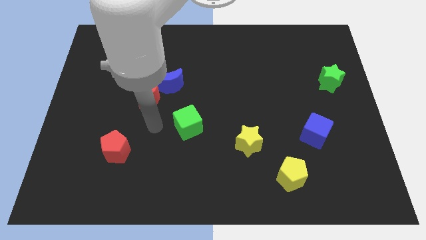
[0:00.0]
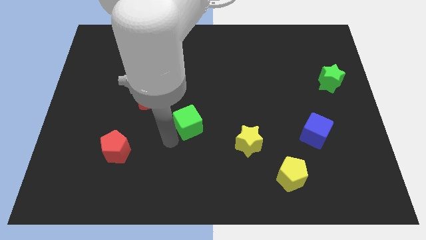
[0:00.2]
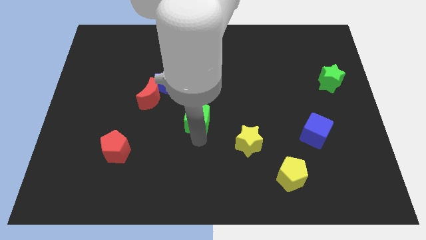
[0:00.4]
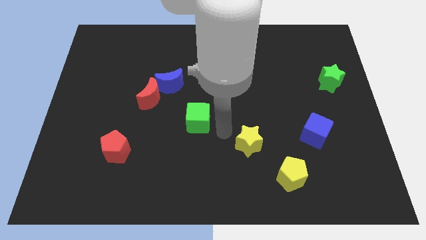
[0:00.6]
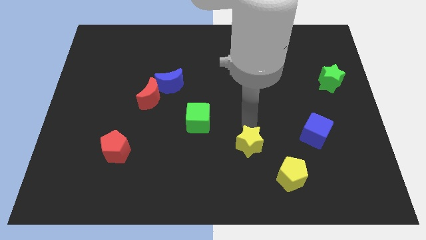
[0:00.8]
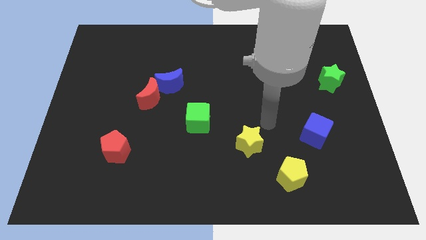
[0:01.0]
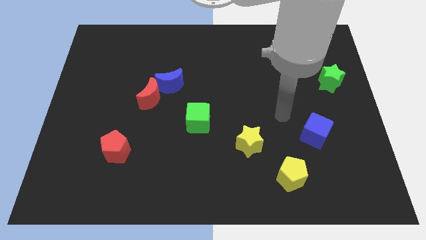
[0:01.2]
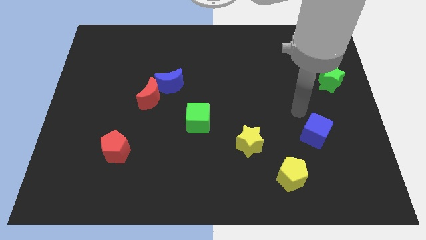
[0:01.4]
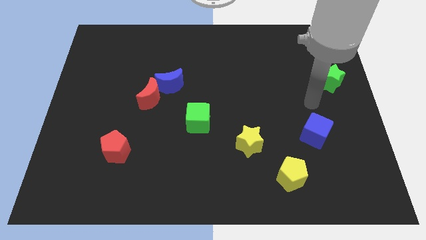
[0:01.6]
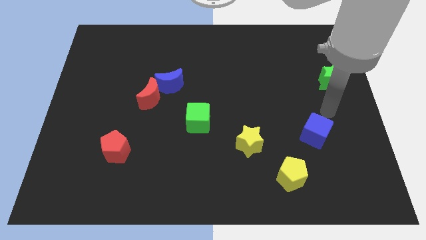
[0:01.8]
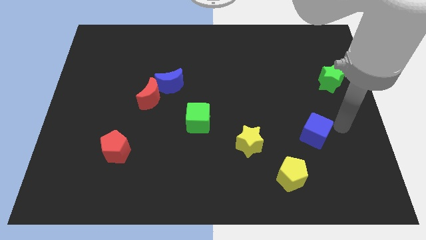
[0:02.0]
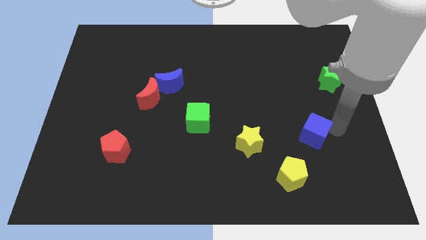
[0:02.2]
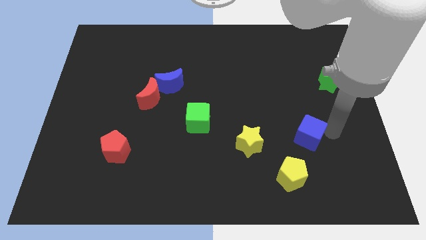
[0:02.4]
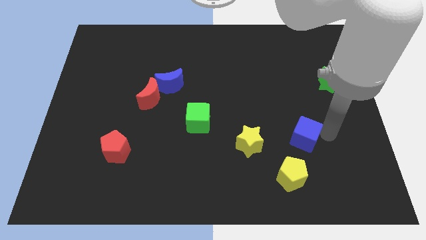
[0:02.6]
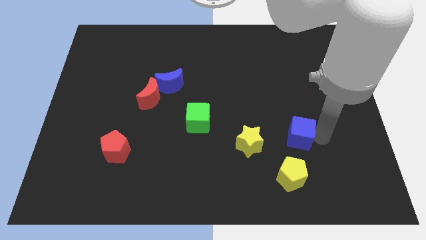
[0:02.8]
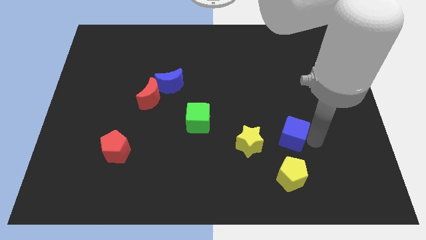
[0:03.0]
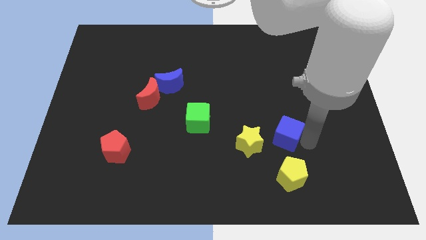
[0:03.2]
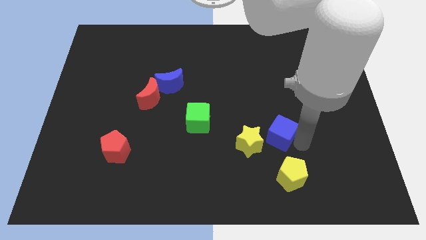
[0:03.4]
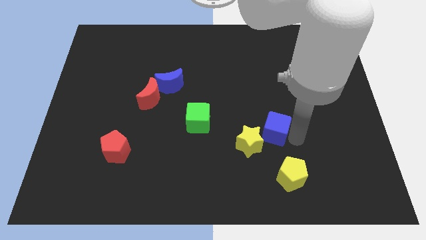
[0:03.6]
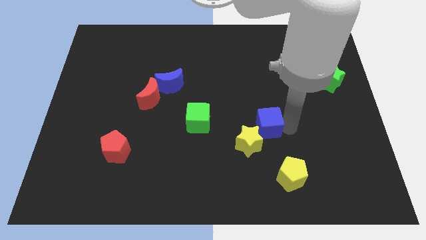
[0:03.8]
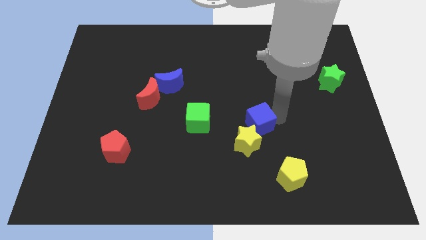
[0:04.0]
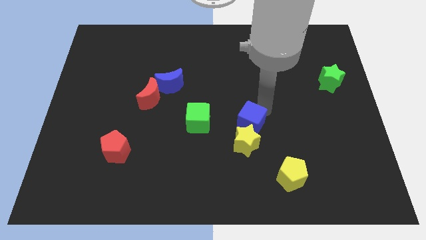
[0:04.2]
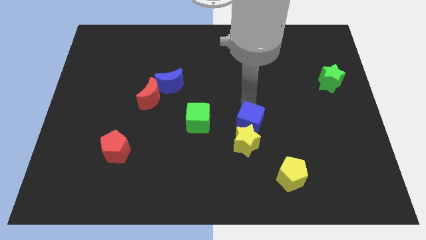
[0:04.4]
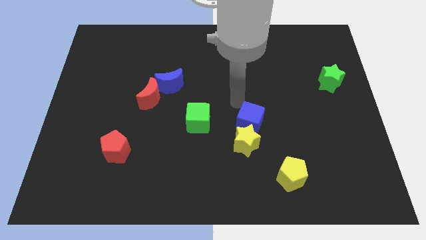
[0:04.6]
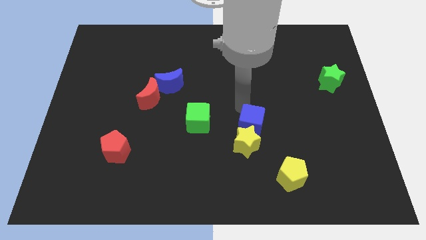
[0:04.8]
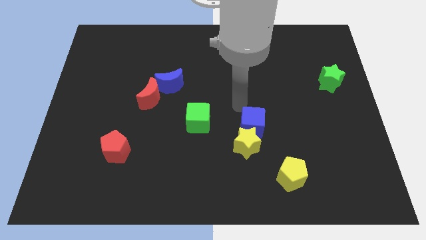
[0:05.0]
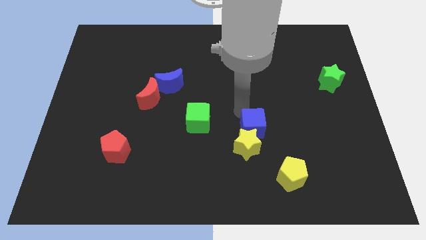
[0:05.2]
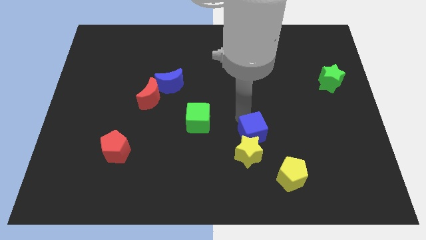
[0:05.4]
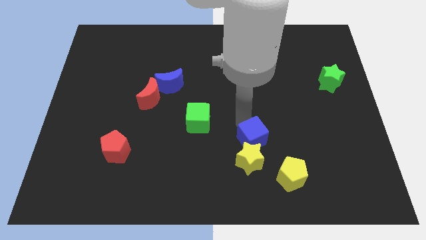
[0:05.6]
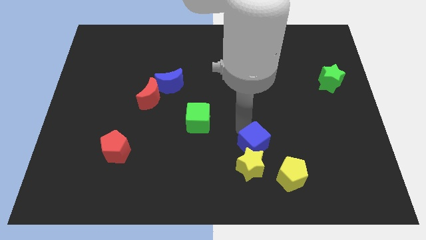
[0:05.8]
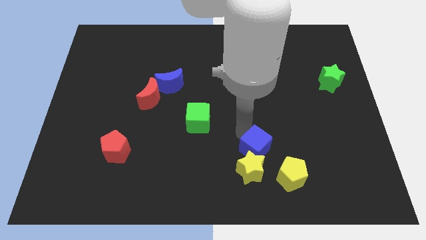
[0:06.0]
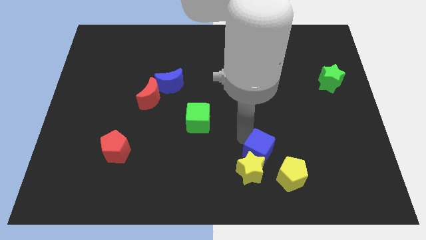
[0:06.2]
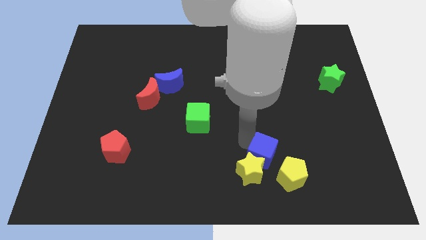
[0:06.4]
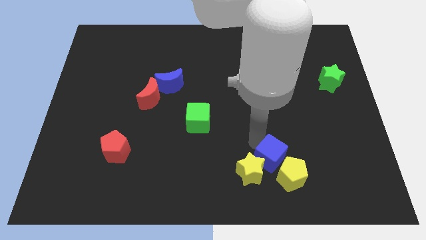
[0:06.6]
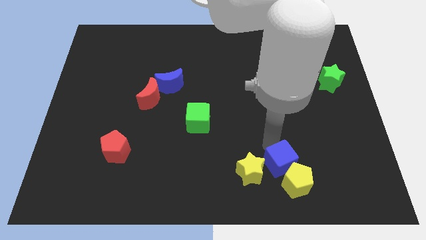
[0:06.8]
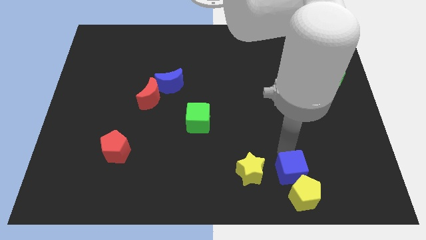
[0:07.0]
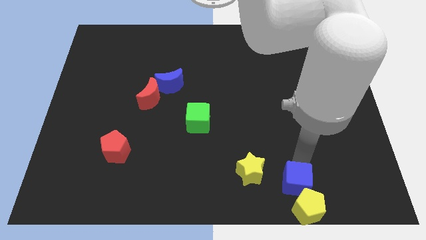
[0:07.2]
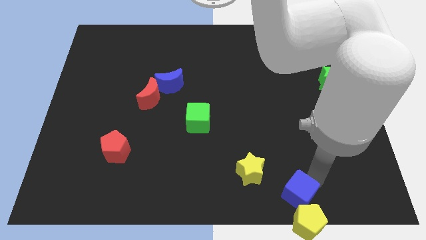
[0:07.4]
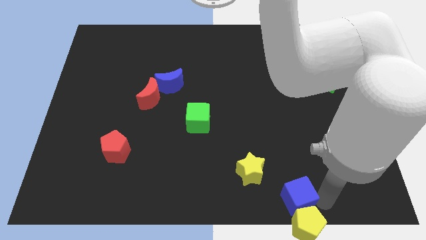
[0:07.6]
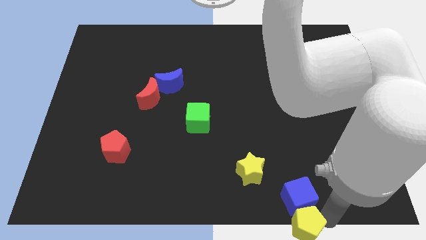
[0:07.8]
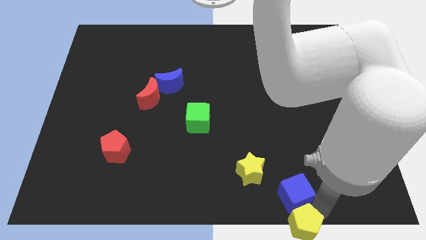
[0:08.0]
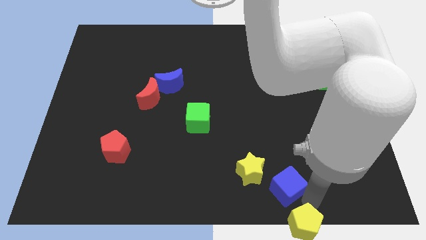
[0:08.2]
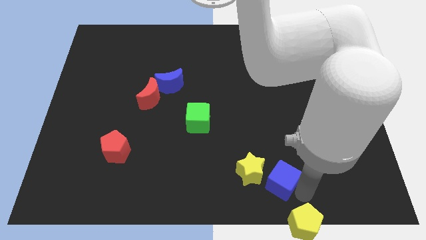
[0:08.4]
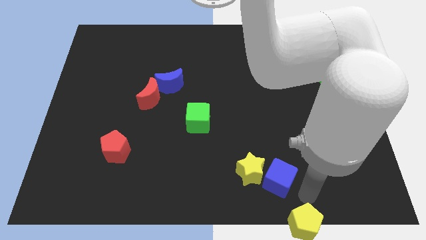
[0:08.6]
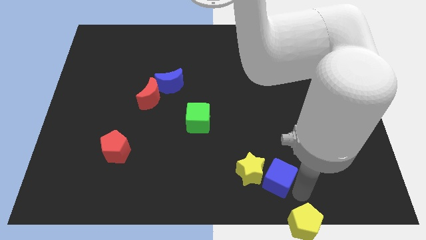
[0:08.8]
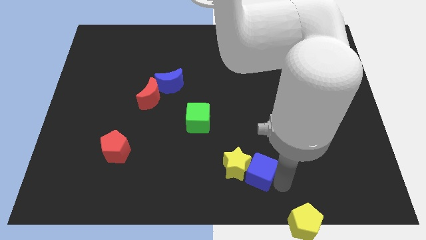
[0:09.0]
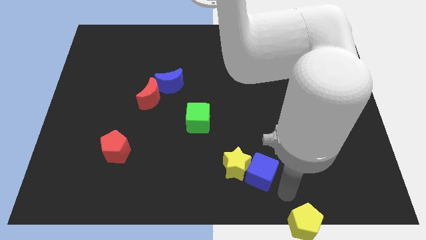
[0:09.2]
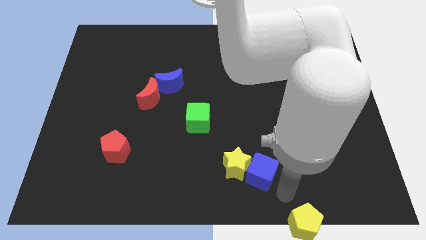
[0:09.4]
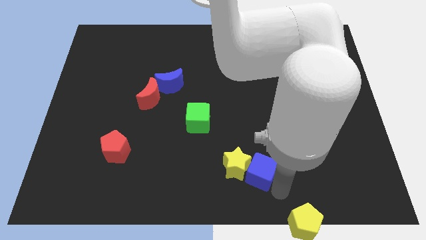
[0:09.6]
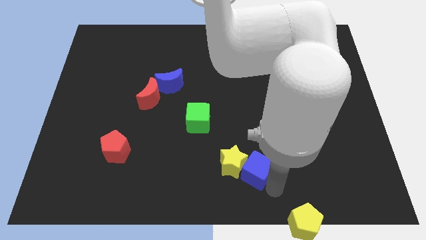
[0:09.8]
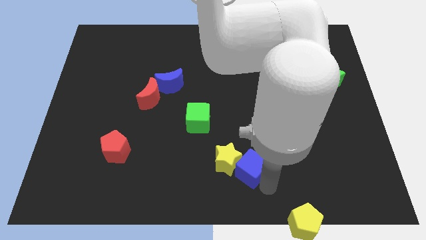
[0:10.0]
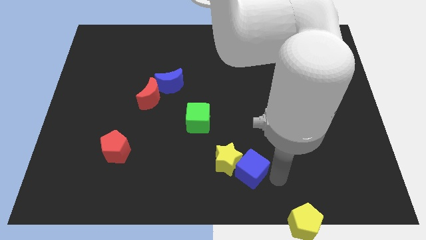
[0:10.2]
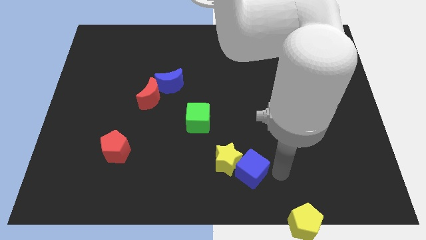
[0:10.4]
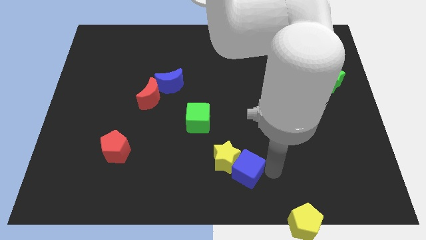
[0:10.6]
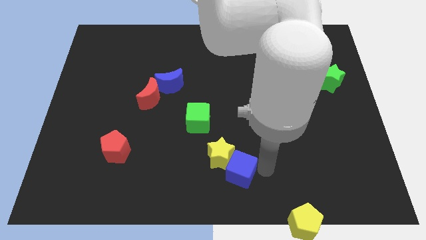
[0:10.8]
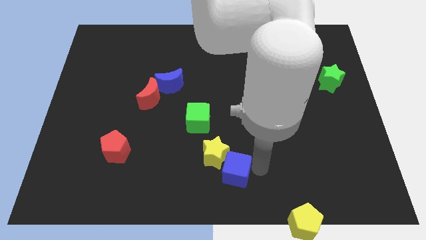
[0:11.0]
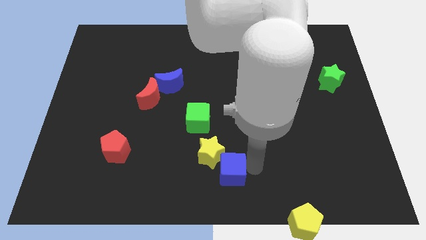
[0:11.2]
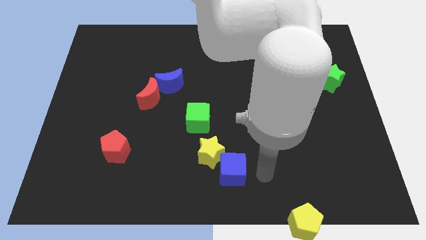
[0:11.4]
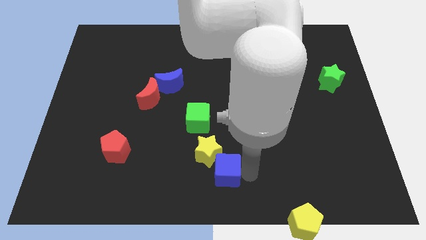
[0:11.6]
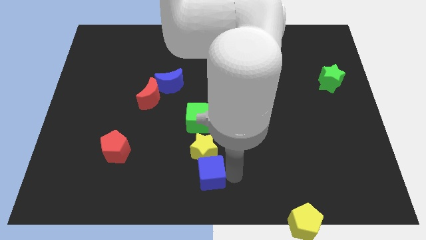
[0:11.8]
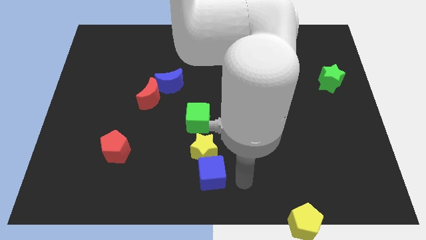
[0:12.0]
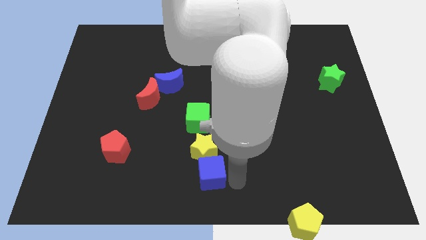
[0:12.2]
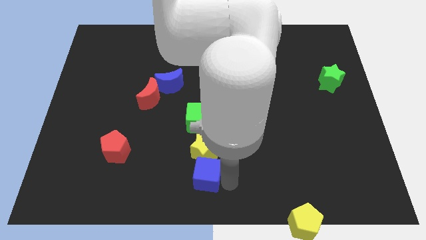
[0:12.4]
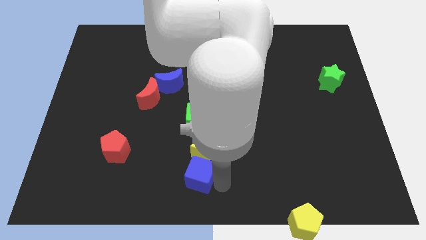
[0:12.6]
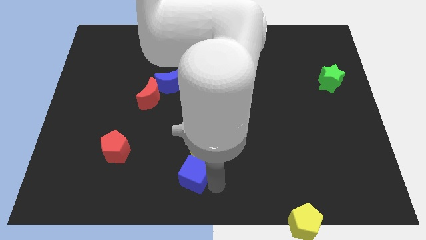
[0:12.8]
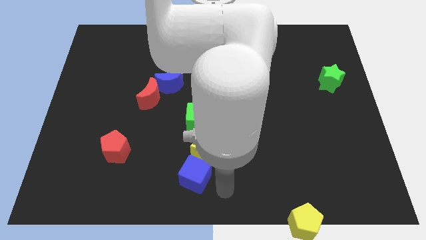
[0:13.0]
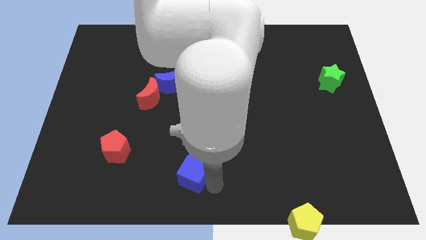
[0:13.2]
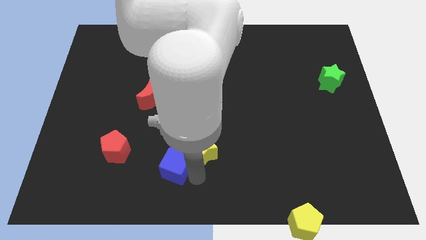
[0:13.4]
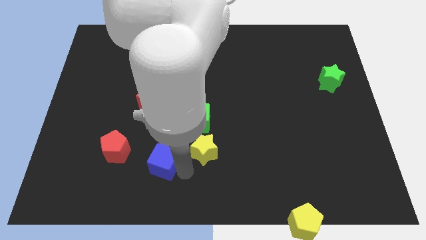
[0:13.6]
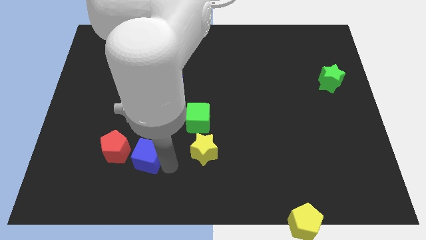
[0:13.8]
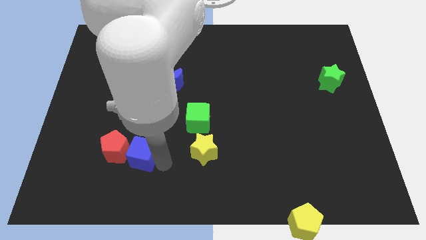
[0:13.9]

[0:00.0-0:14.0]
slide the blue cube towards the red pentagon

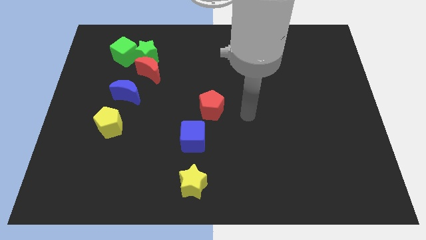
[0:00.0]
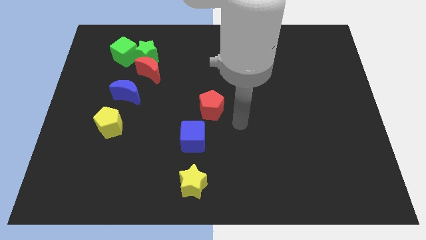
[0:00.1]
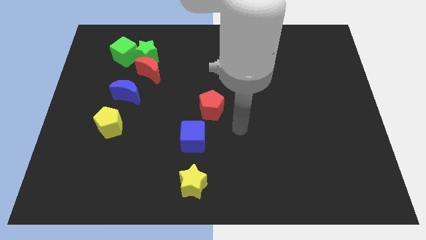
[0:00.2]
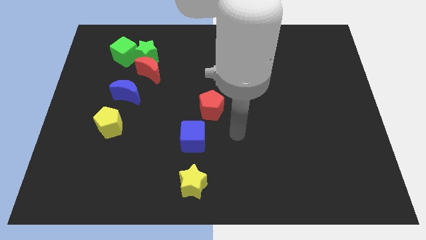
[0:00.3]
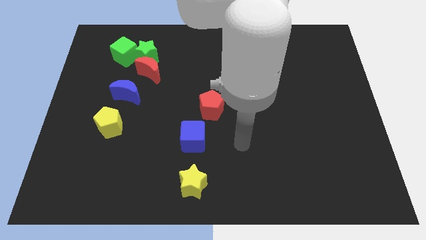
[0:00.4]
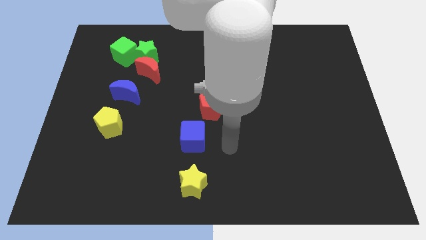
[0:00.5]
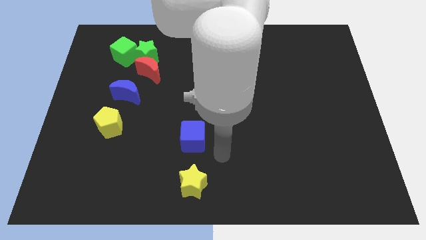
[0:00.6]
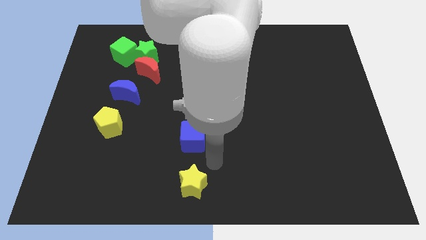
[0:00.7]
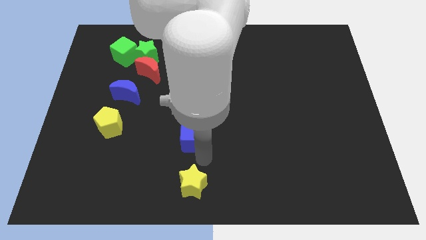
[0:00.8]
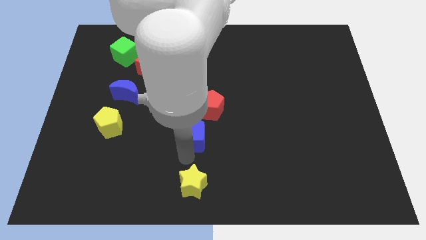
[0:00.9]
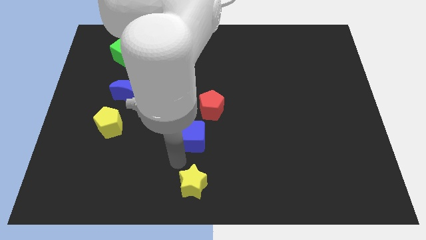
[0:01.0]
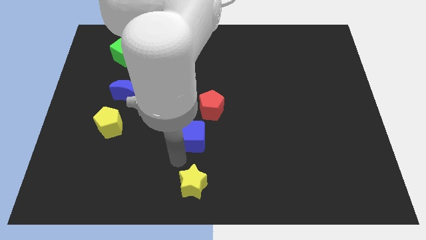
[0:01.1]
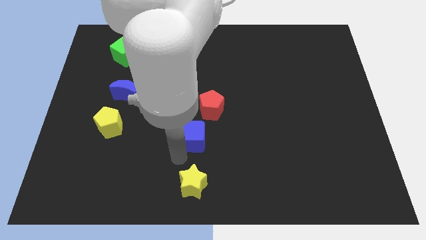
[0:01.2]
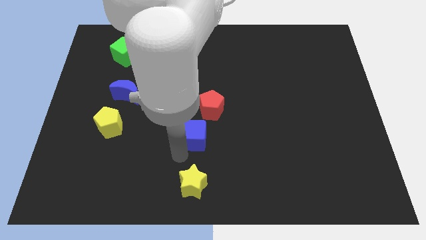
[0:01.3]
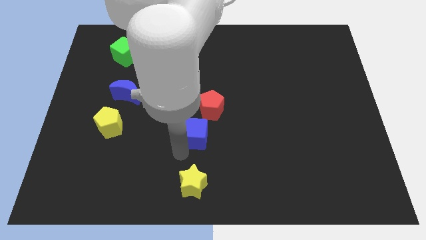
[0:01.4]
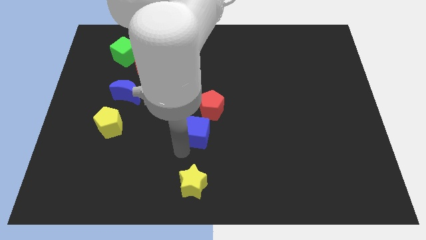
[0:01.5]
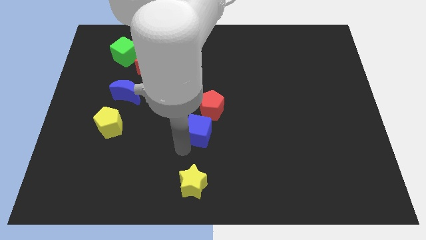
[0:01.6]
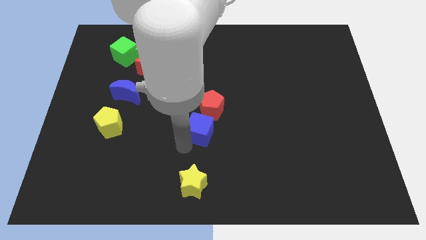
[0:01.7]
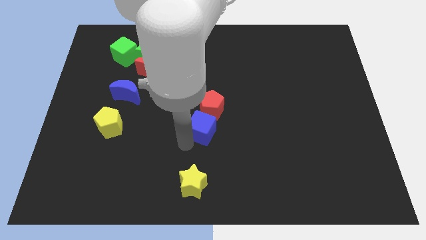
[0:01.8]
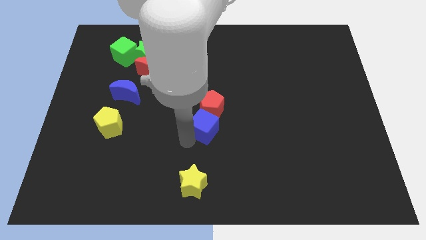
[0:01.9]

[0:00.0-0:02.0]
push the blue cube close to the red pentagon
